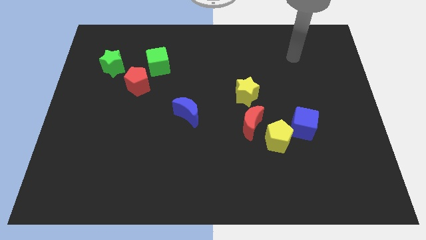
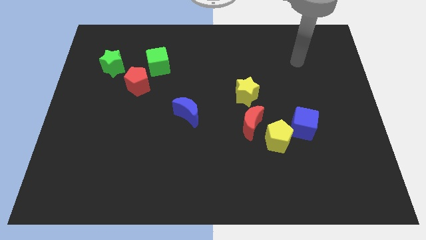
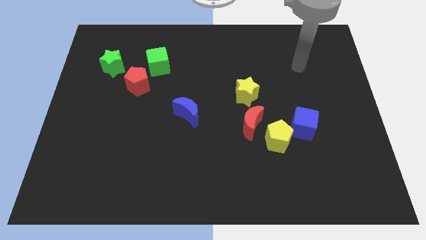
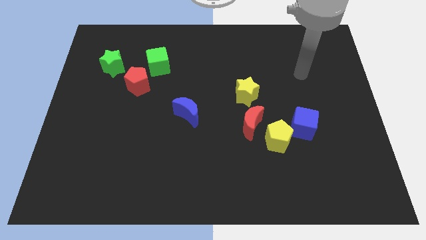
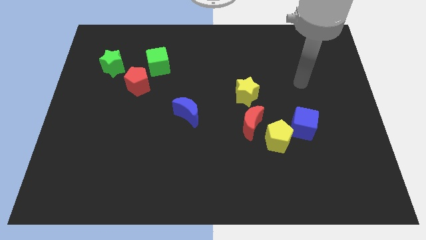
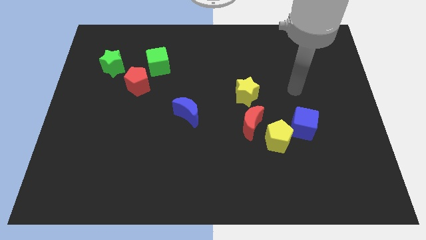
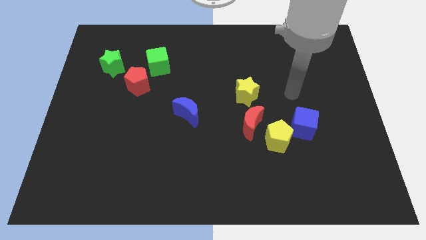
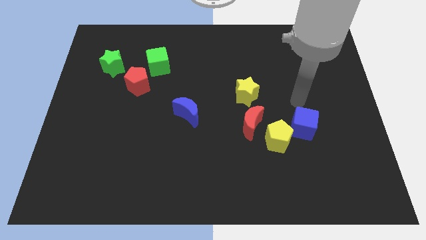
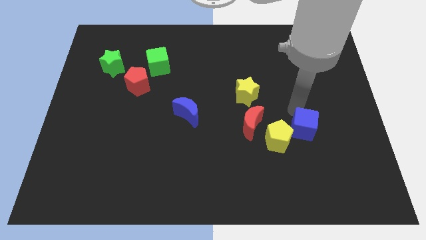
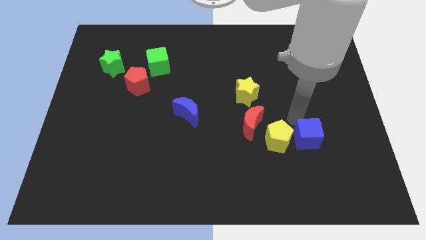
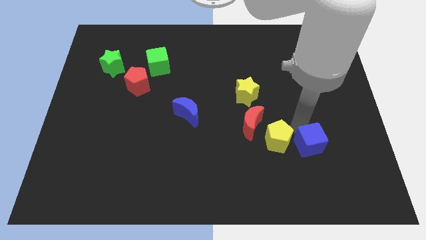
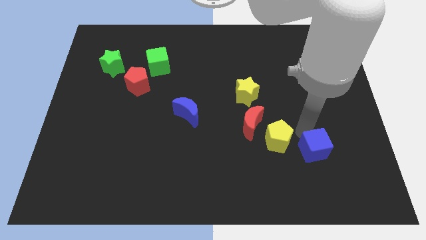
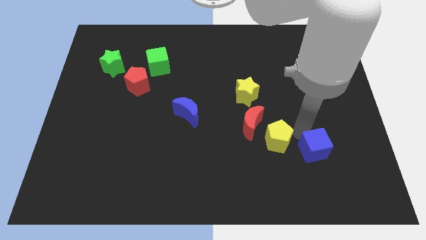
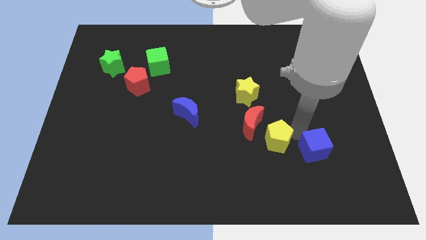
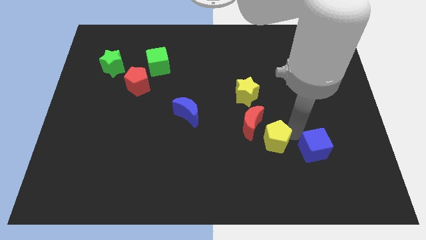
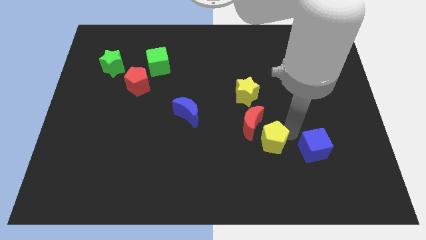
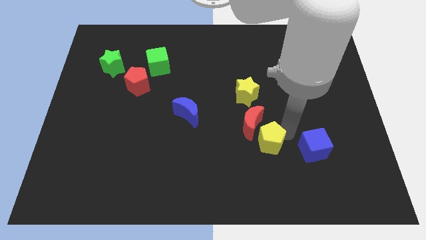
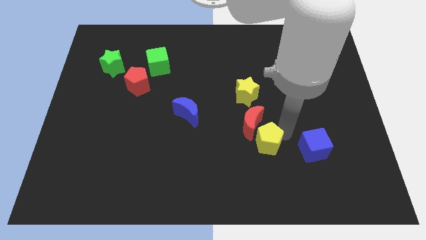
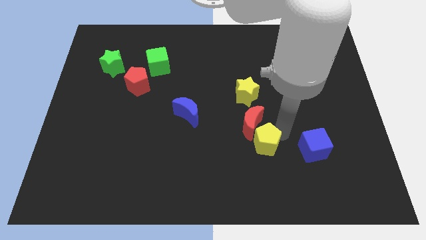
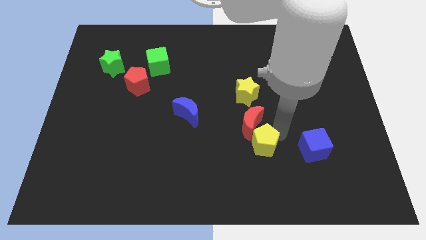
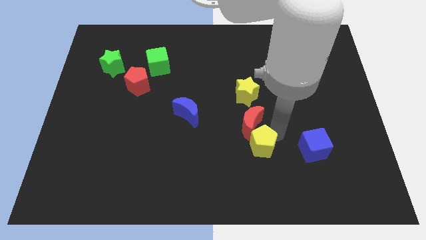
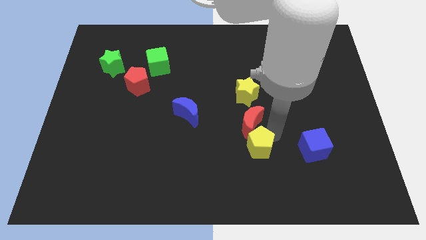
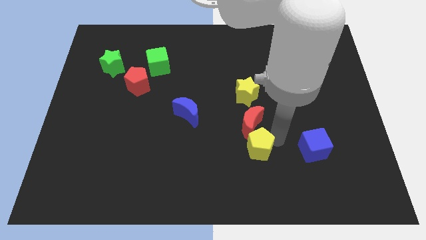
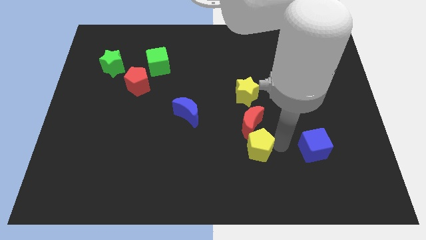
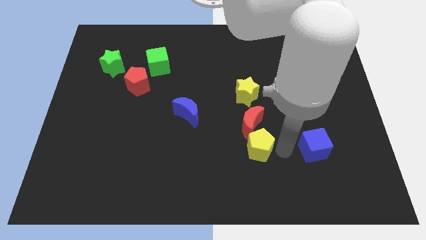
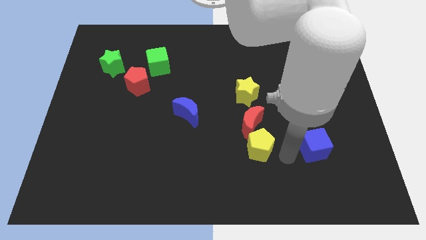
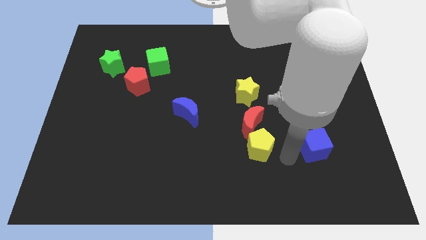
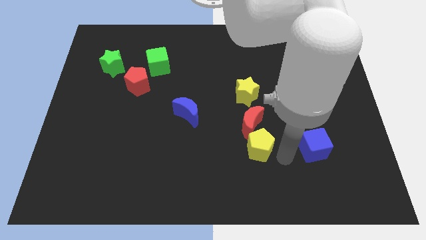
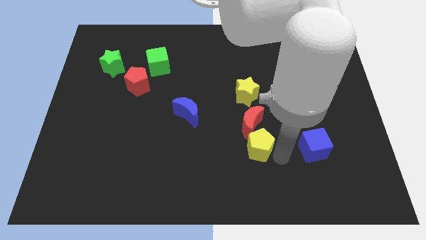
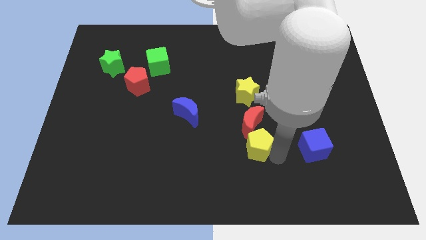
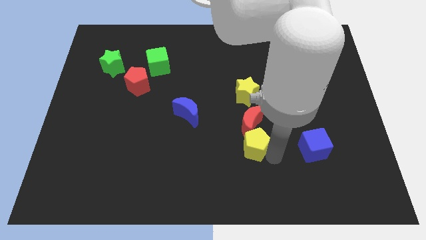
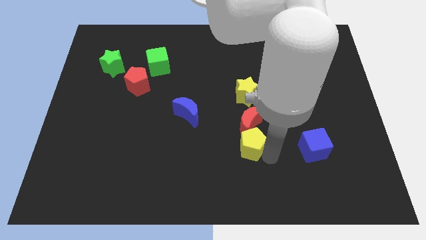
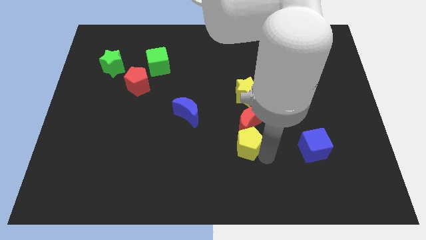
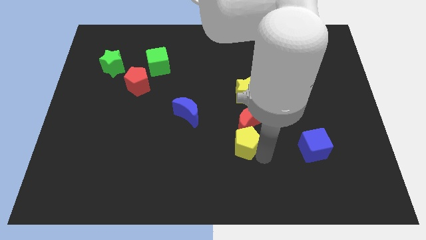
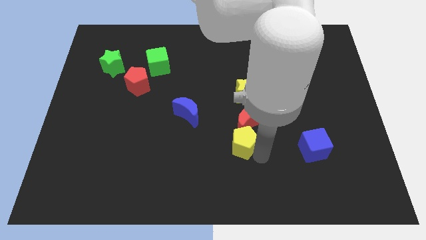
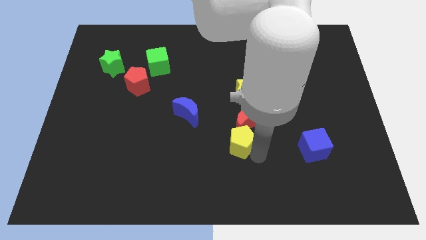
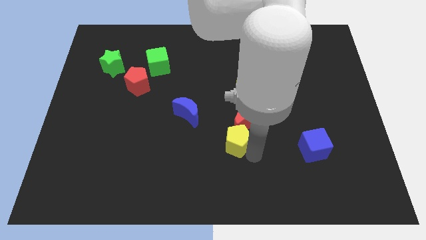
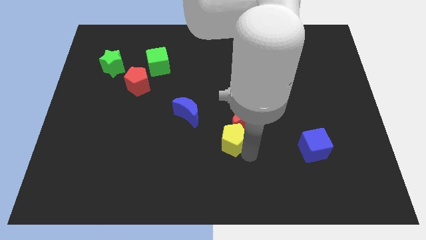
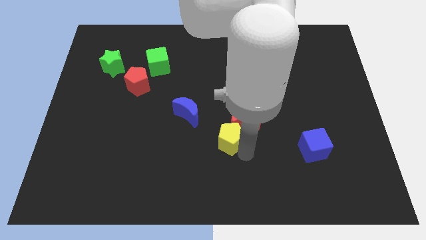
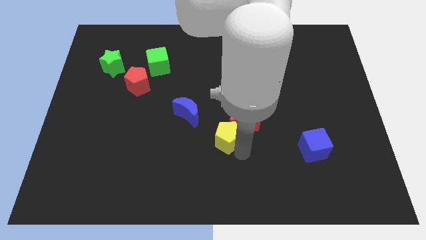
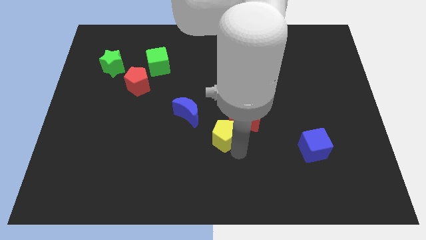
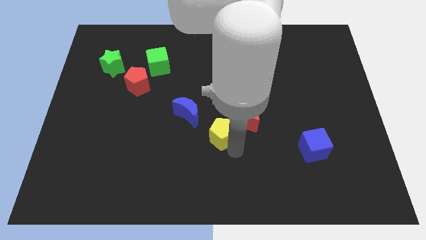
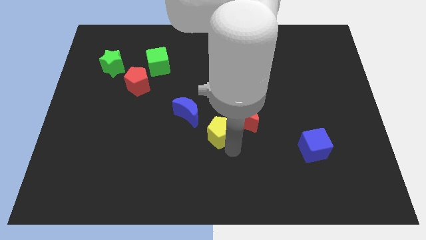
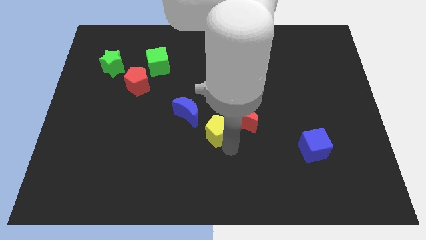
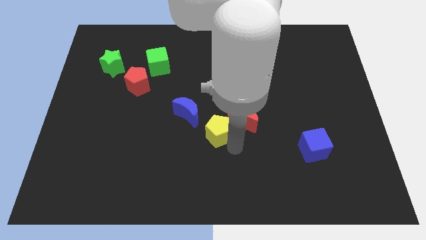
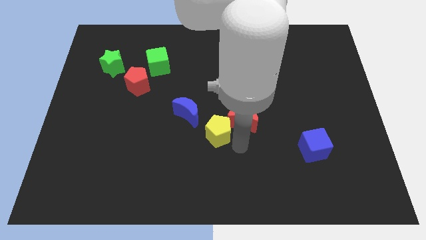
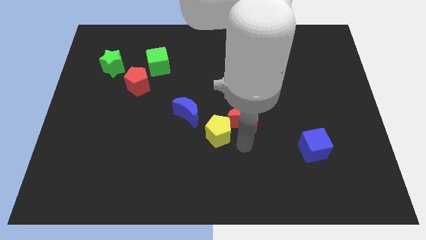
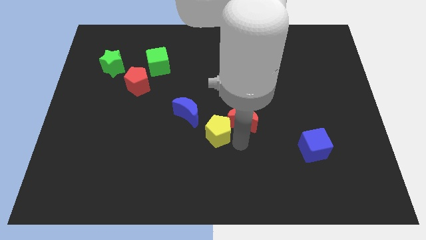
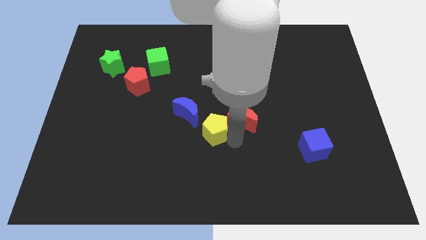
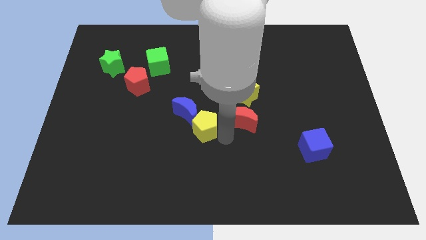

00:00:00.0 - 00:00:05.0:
slide the yellow pentagon towards the blue moon

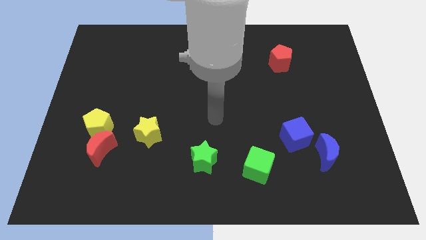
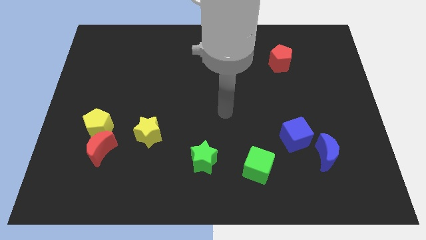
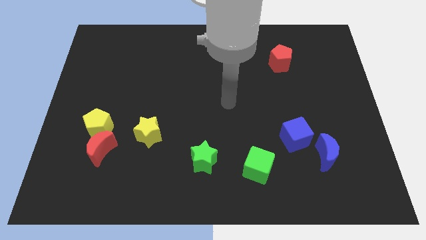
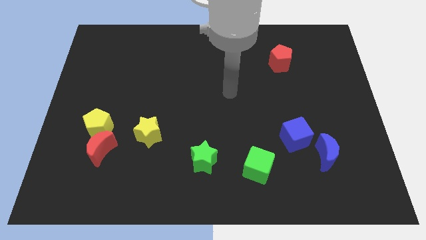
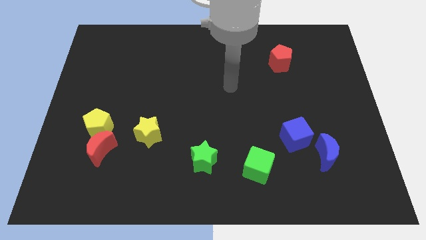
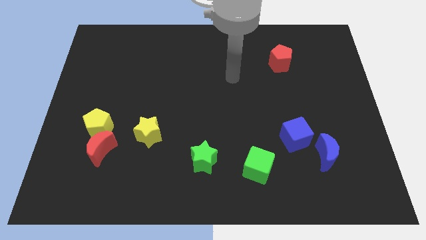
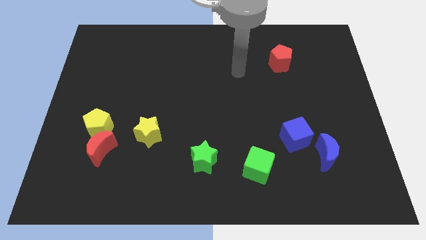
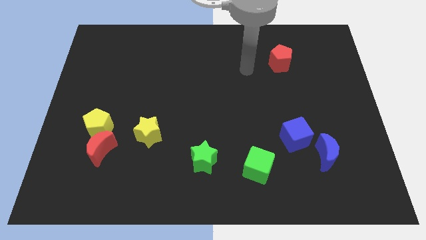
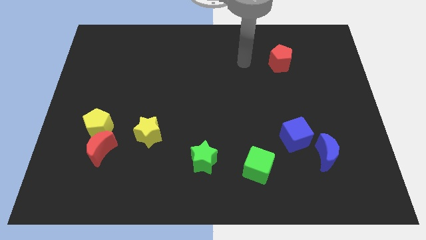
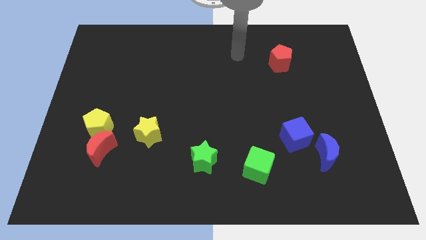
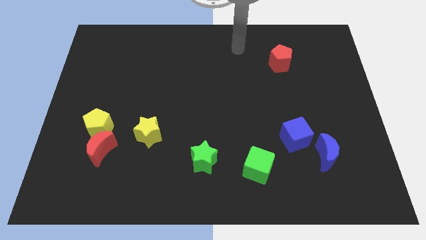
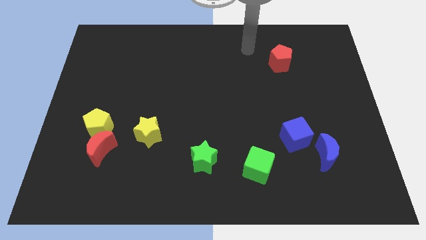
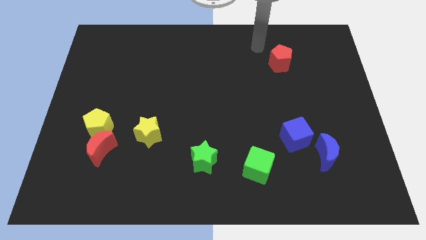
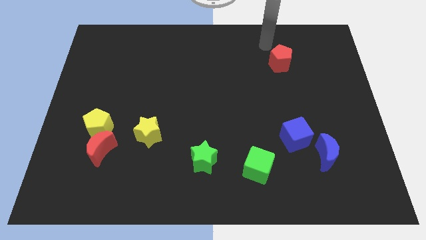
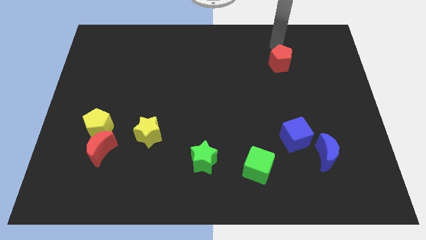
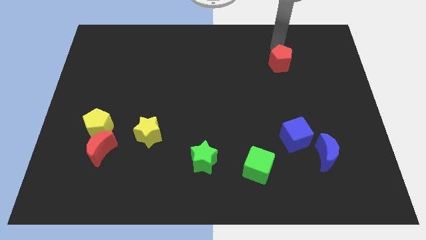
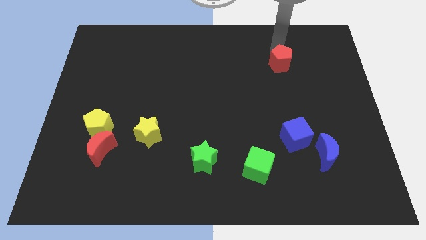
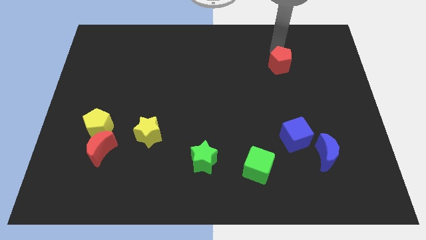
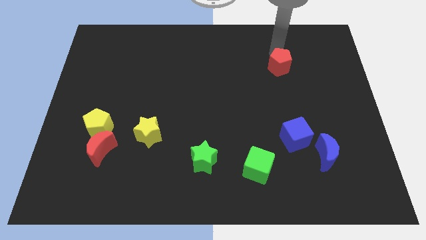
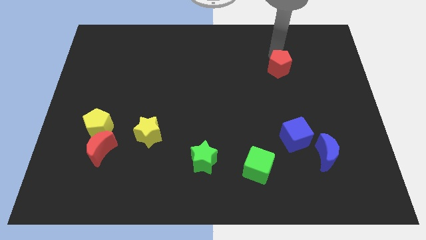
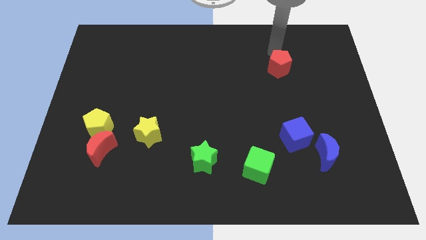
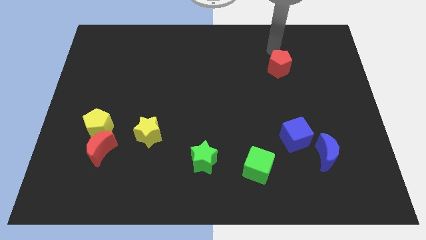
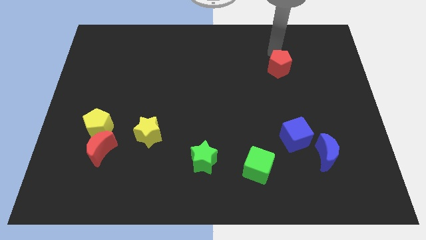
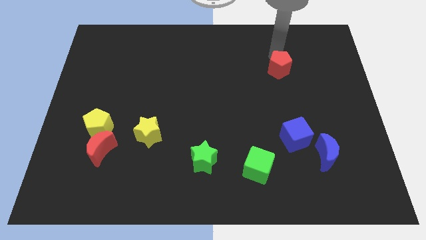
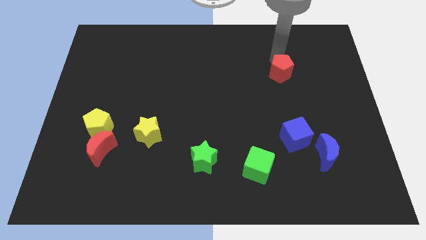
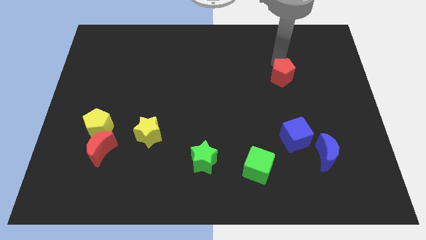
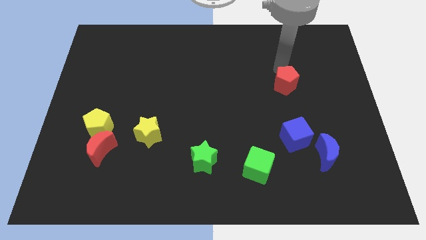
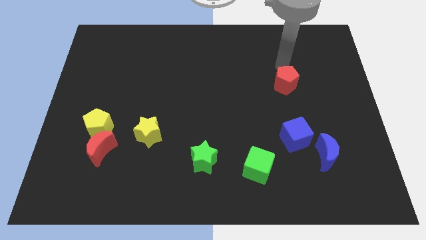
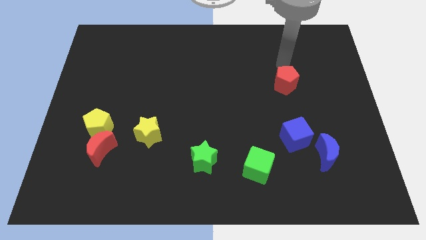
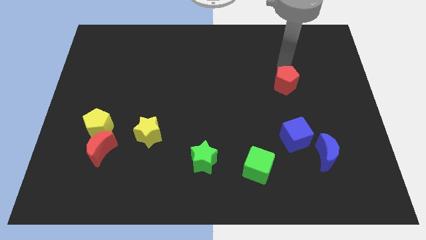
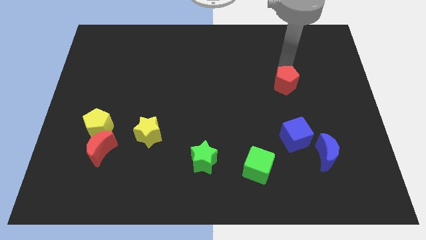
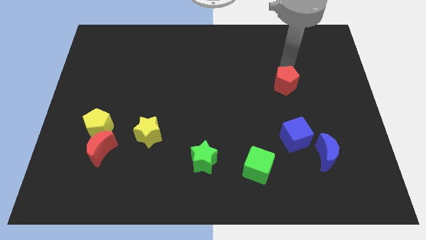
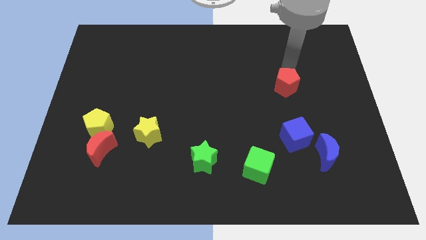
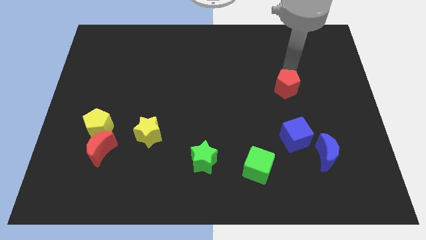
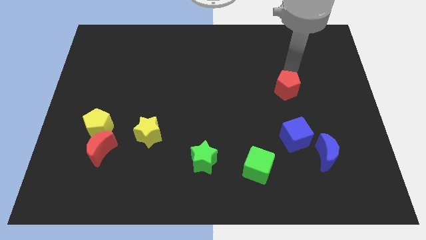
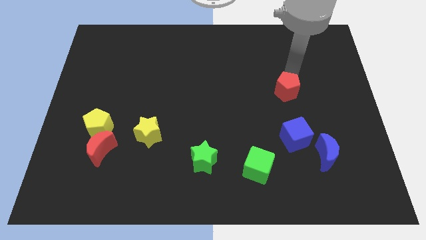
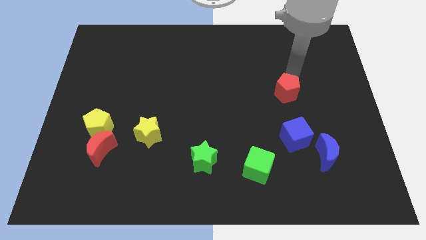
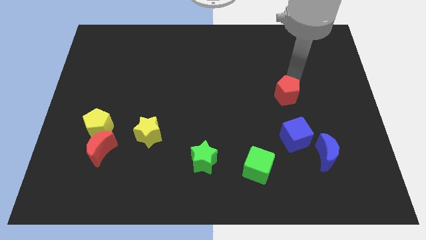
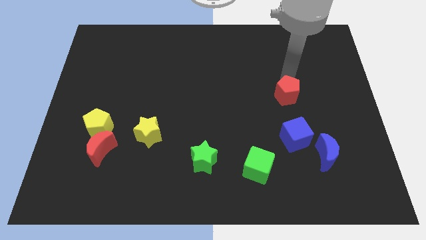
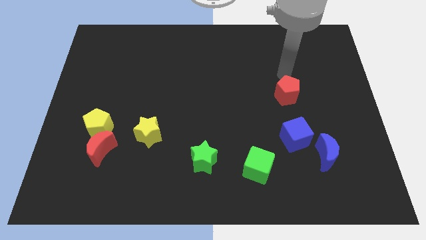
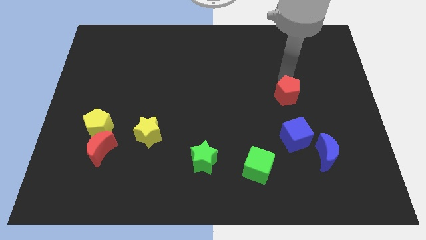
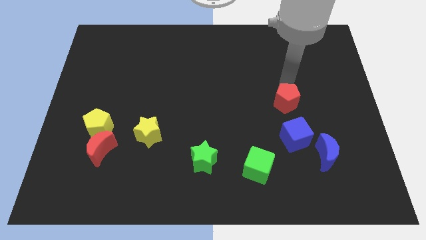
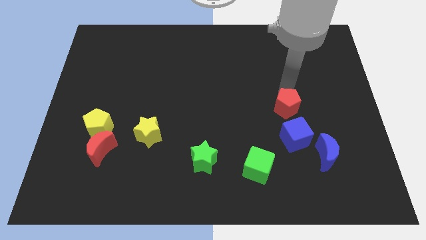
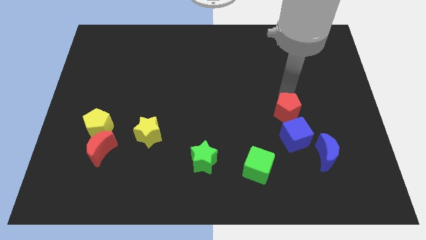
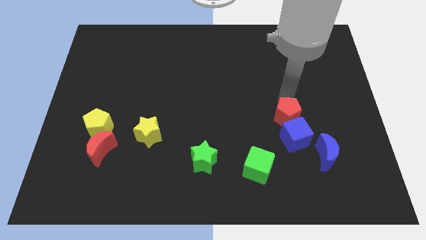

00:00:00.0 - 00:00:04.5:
move the red pentagon towards the blue cube
